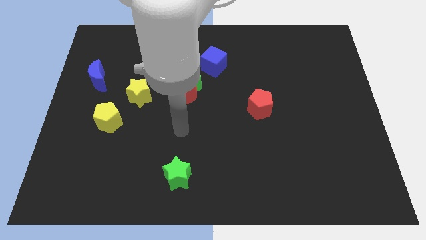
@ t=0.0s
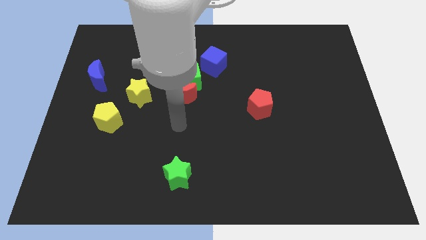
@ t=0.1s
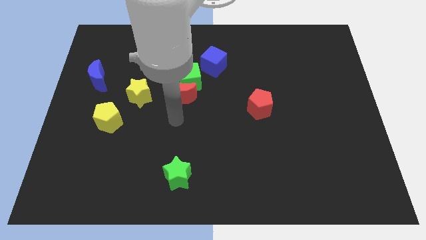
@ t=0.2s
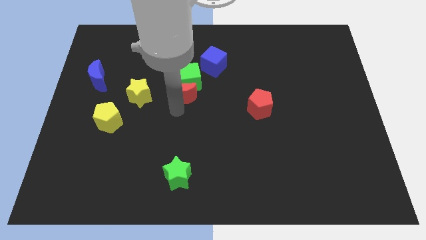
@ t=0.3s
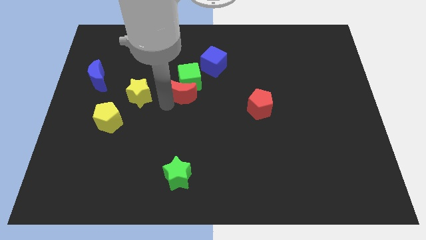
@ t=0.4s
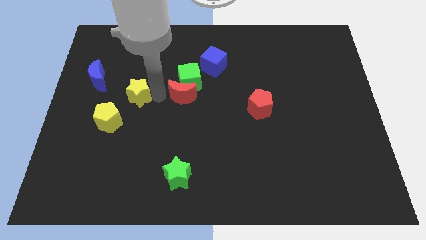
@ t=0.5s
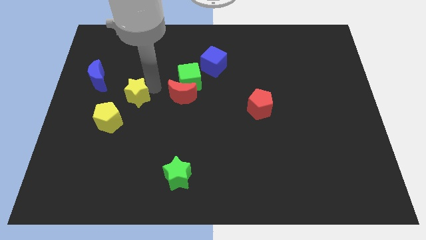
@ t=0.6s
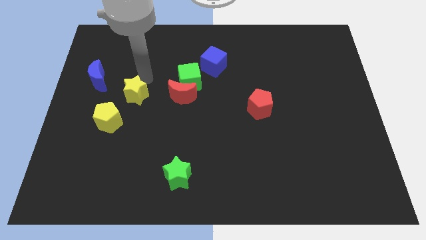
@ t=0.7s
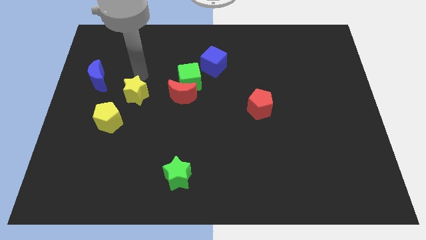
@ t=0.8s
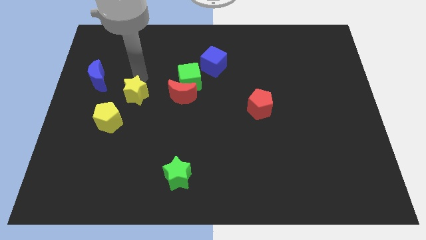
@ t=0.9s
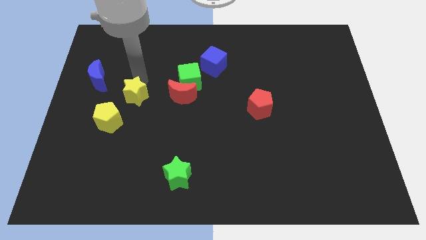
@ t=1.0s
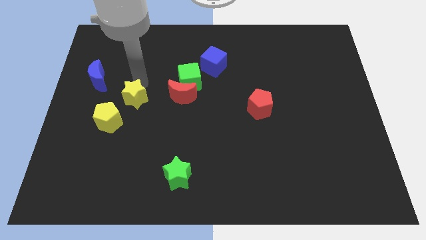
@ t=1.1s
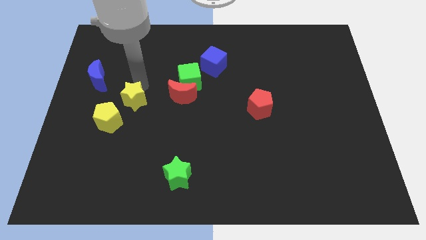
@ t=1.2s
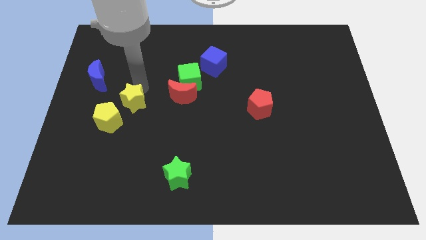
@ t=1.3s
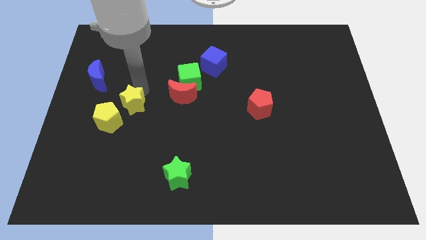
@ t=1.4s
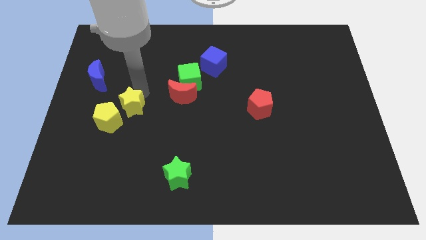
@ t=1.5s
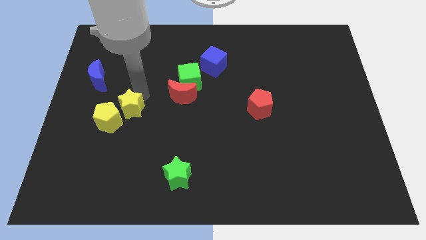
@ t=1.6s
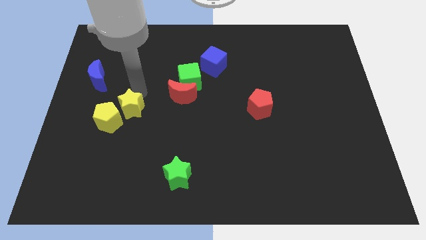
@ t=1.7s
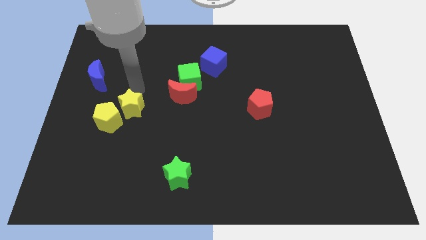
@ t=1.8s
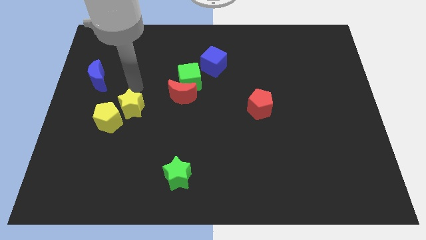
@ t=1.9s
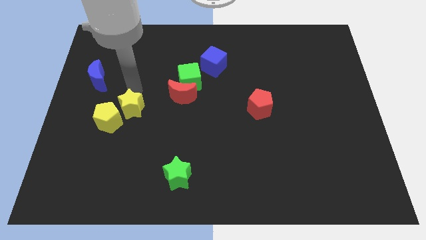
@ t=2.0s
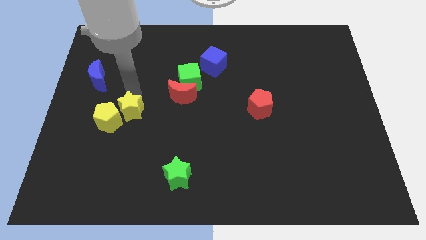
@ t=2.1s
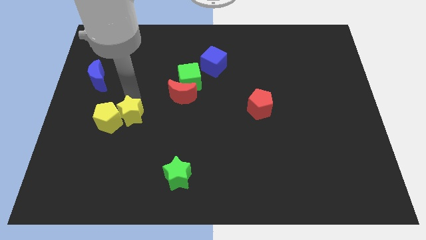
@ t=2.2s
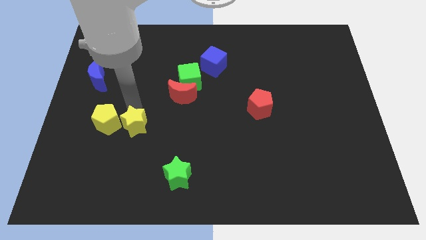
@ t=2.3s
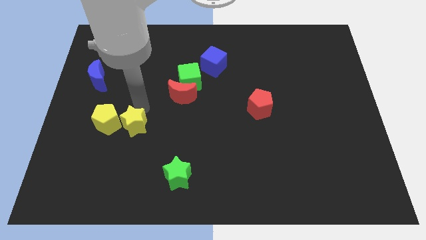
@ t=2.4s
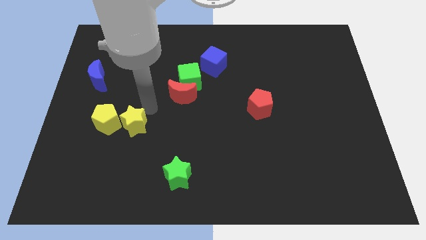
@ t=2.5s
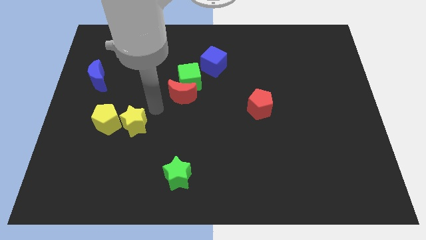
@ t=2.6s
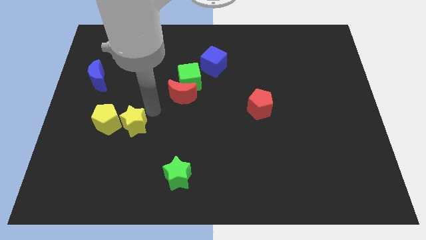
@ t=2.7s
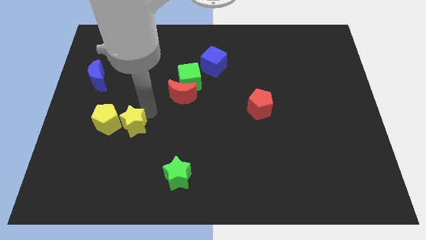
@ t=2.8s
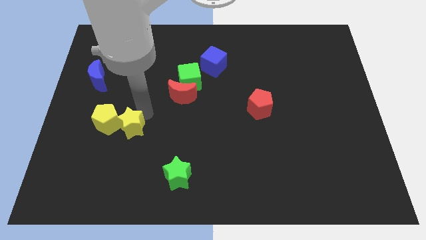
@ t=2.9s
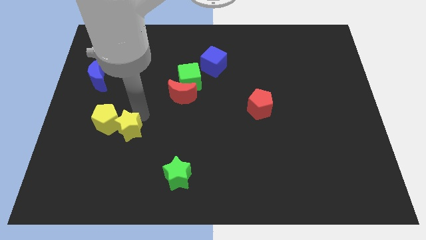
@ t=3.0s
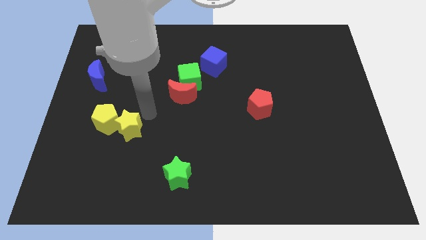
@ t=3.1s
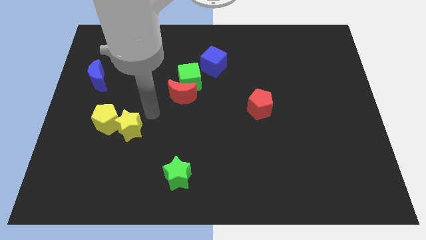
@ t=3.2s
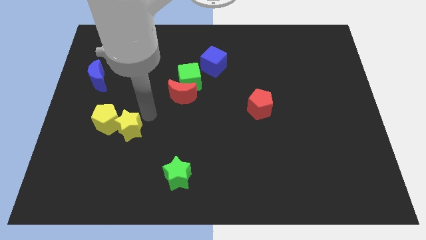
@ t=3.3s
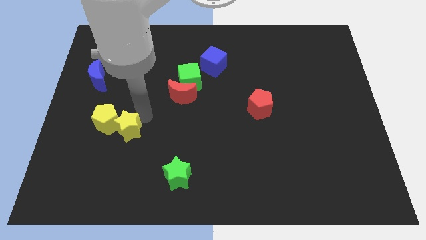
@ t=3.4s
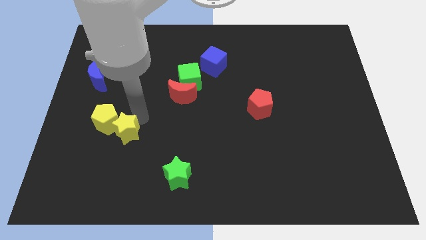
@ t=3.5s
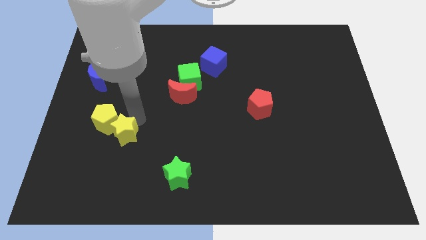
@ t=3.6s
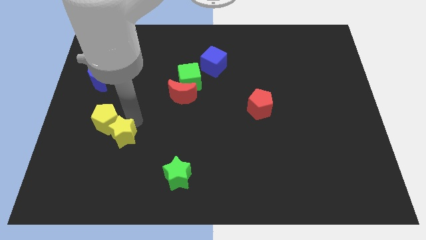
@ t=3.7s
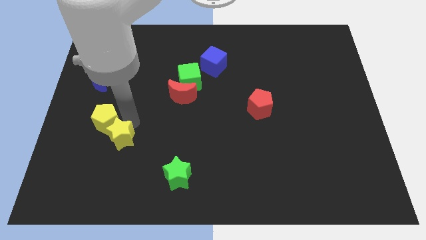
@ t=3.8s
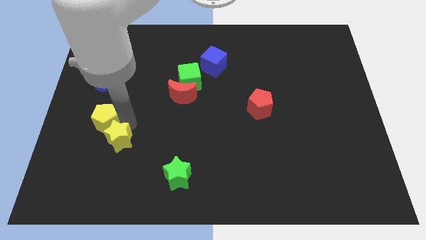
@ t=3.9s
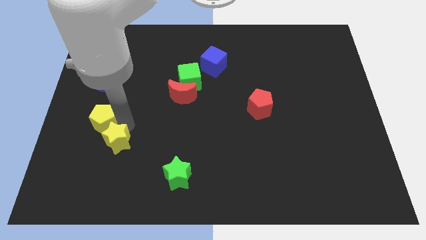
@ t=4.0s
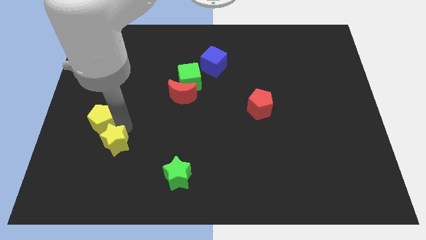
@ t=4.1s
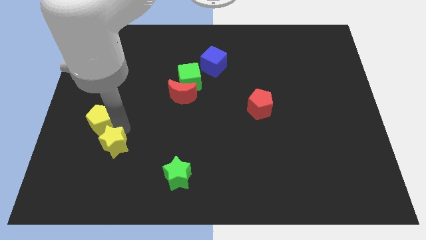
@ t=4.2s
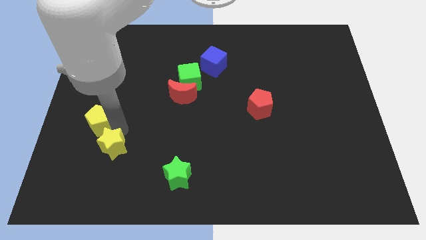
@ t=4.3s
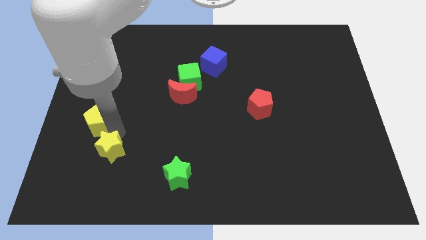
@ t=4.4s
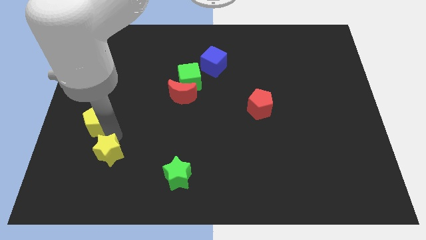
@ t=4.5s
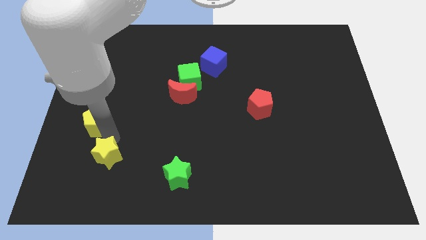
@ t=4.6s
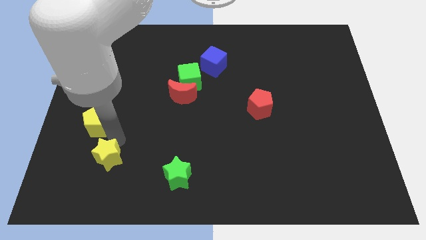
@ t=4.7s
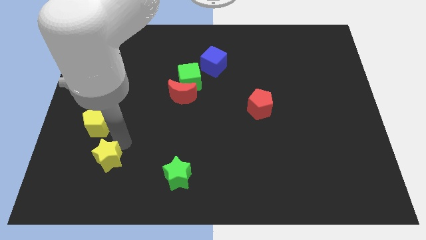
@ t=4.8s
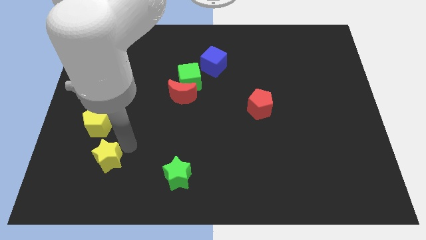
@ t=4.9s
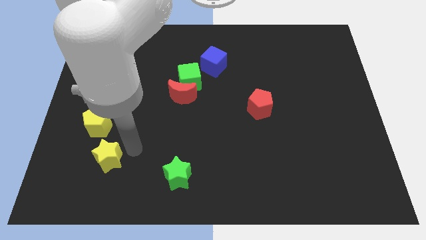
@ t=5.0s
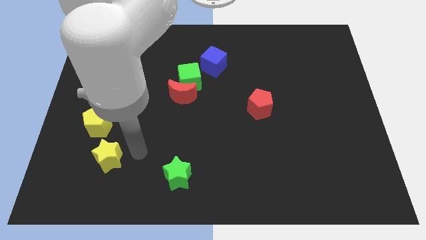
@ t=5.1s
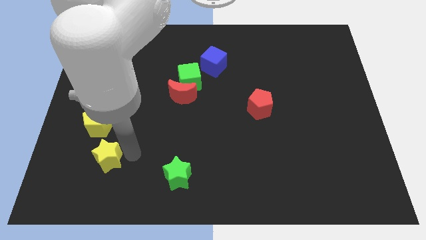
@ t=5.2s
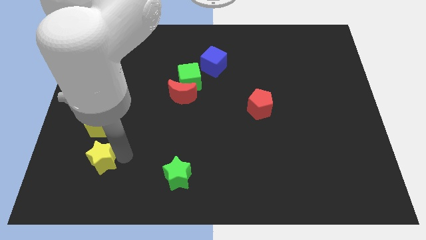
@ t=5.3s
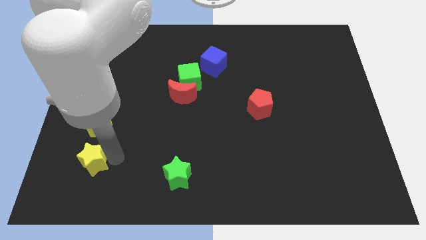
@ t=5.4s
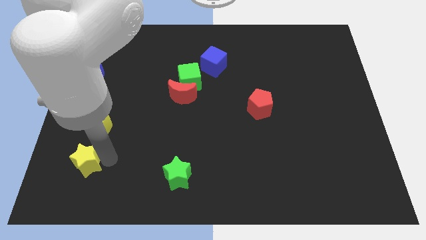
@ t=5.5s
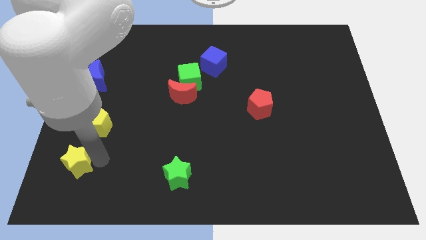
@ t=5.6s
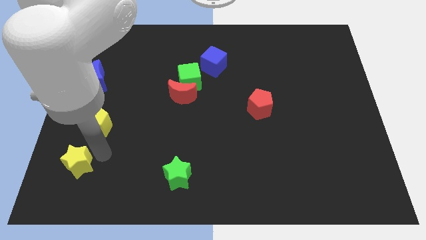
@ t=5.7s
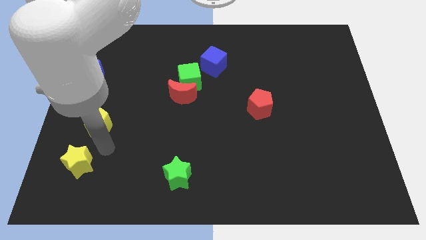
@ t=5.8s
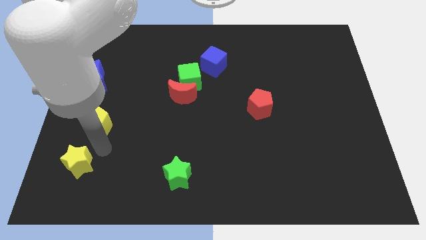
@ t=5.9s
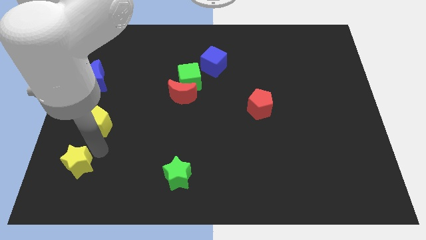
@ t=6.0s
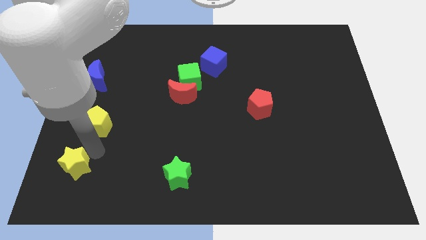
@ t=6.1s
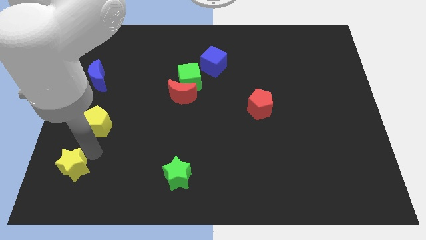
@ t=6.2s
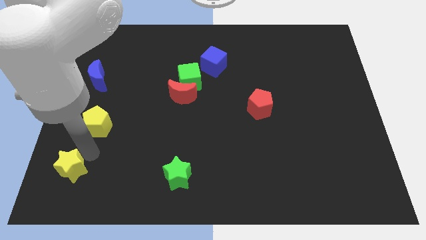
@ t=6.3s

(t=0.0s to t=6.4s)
push the yellow star to the bottom left of the board
